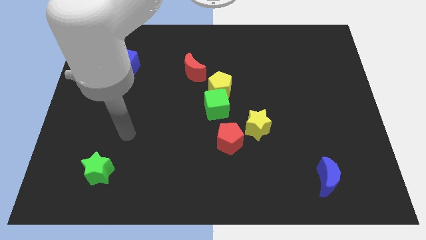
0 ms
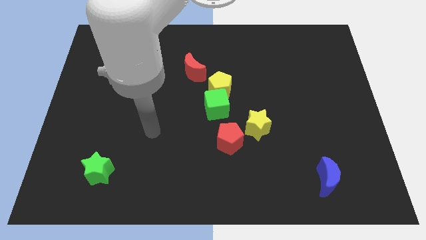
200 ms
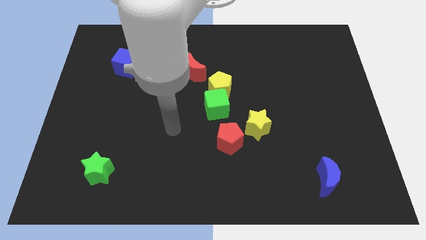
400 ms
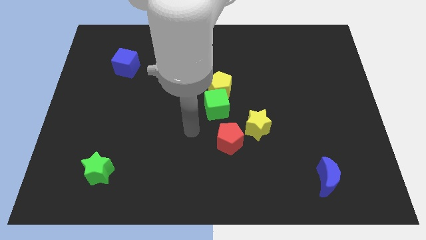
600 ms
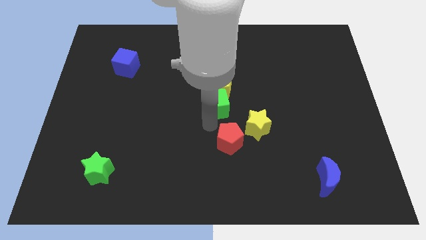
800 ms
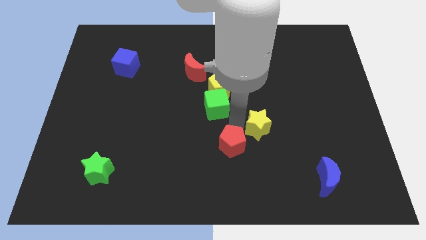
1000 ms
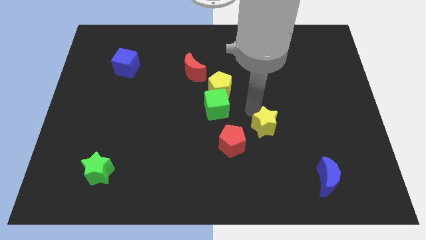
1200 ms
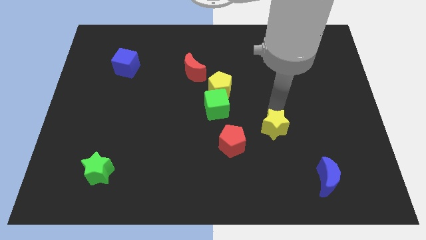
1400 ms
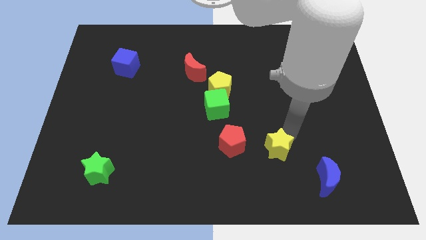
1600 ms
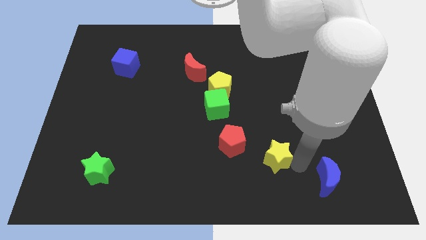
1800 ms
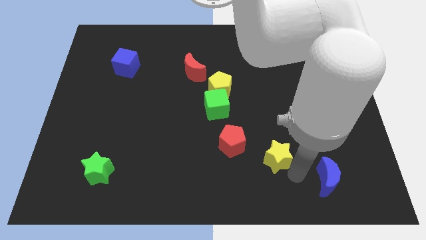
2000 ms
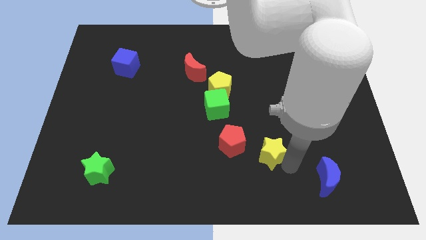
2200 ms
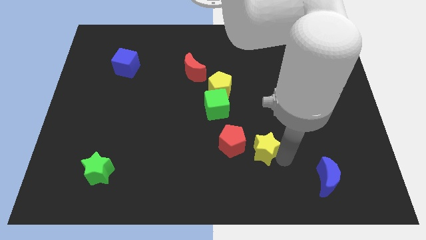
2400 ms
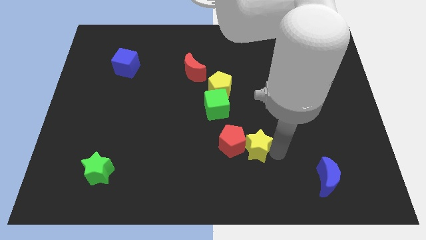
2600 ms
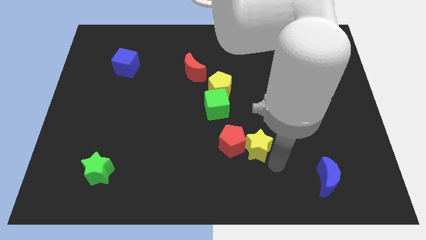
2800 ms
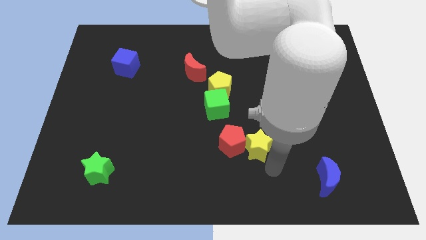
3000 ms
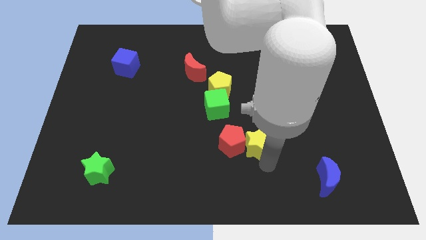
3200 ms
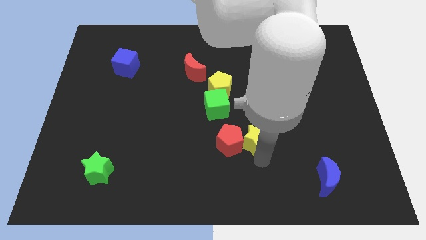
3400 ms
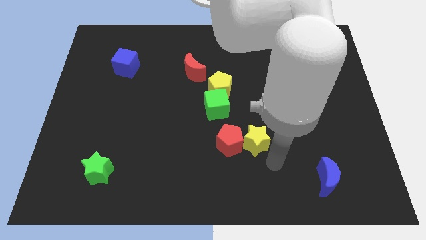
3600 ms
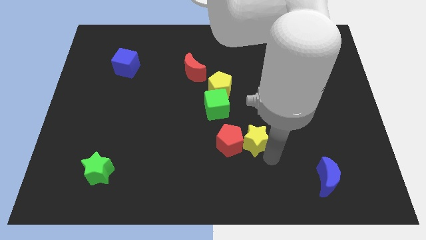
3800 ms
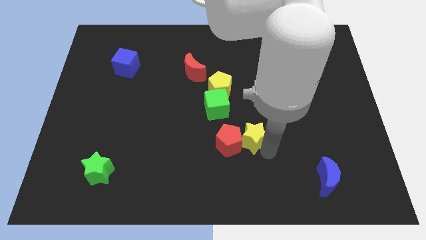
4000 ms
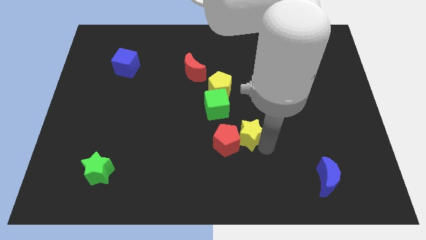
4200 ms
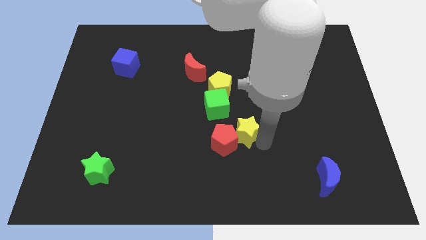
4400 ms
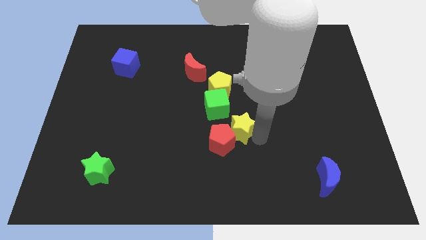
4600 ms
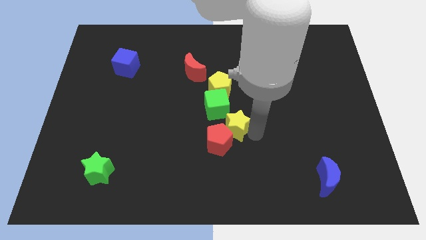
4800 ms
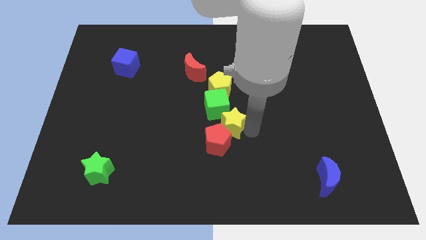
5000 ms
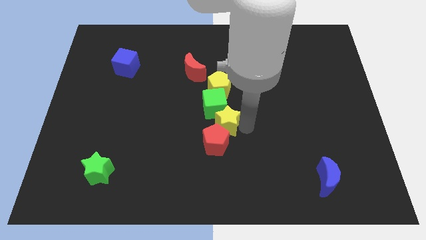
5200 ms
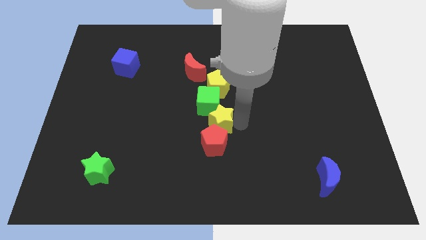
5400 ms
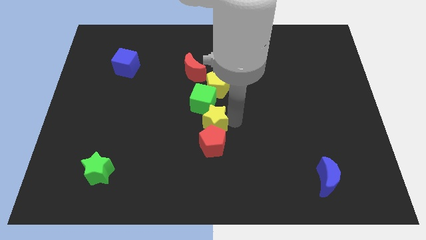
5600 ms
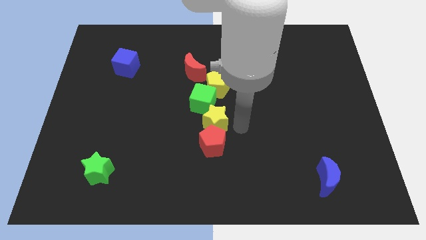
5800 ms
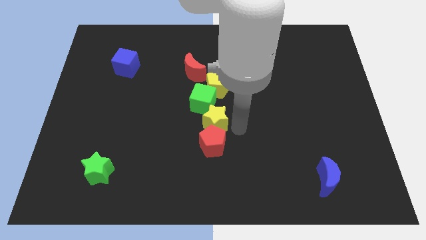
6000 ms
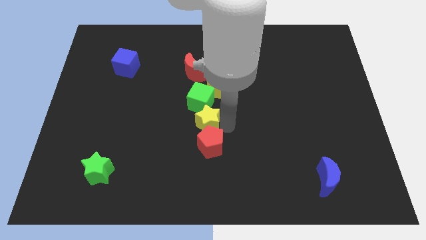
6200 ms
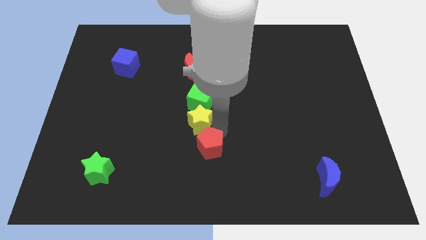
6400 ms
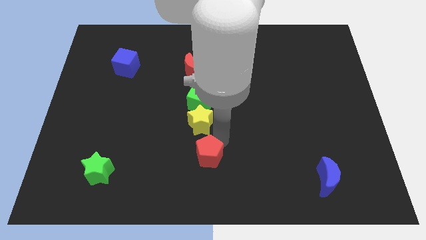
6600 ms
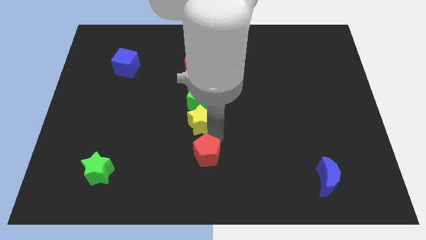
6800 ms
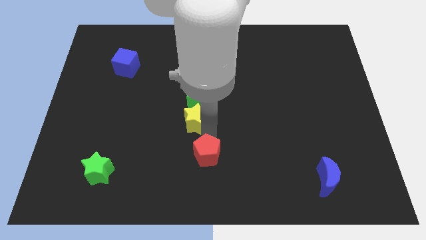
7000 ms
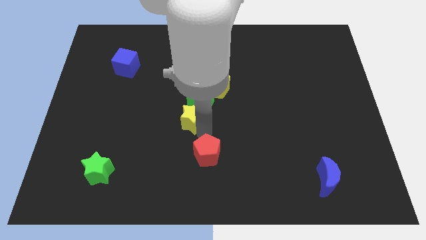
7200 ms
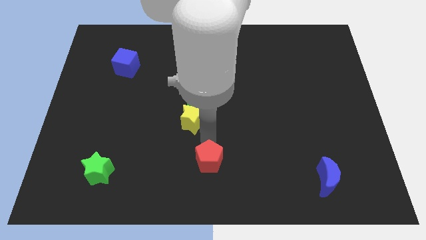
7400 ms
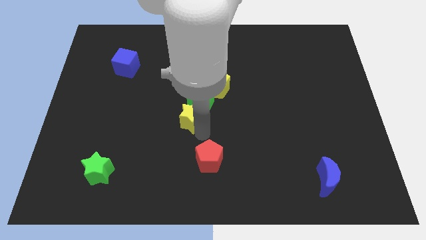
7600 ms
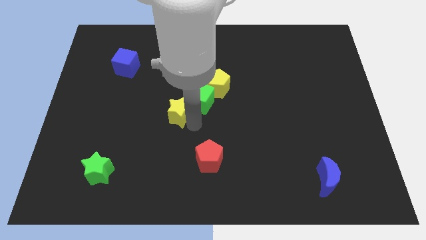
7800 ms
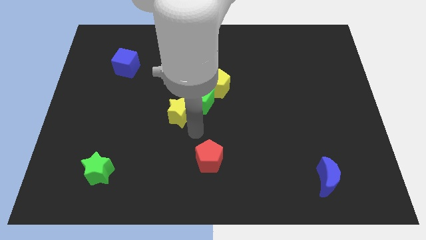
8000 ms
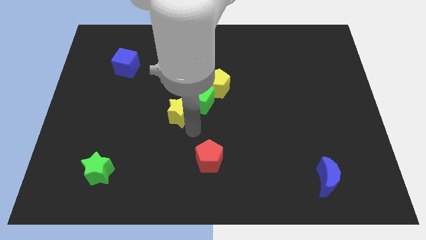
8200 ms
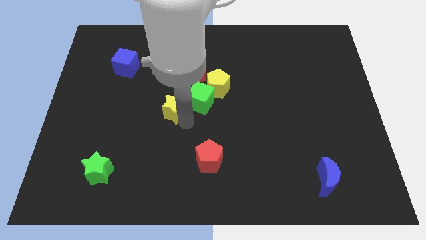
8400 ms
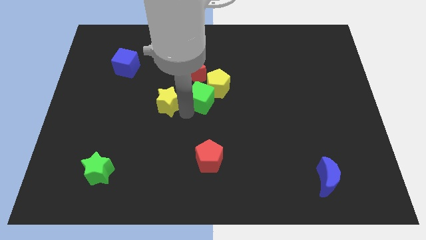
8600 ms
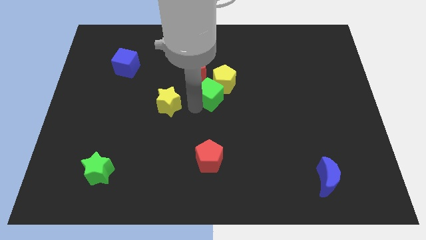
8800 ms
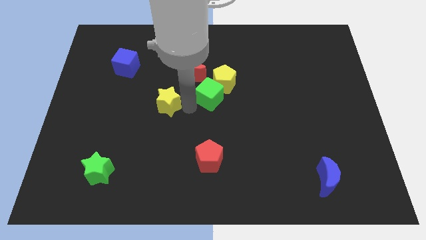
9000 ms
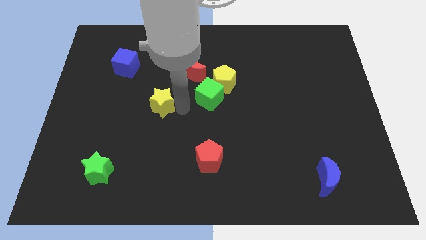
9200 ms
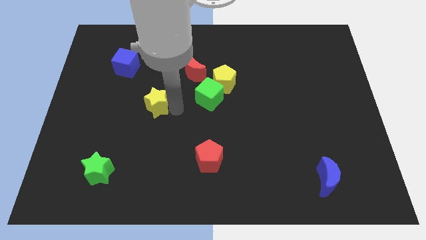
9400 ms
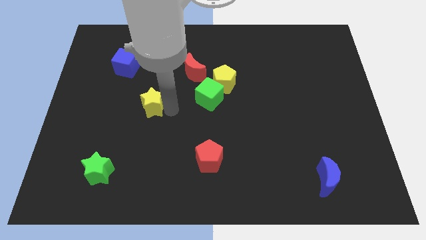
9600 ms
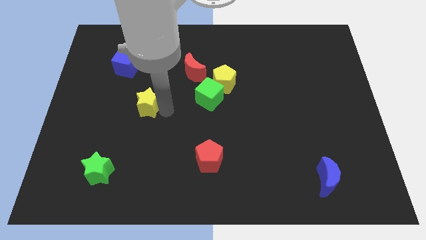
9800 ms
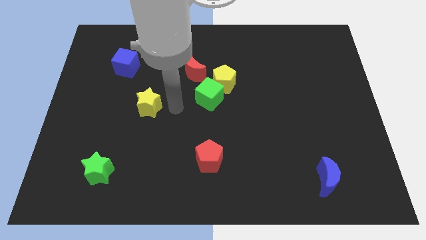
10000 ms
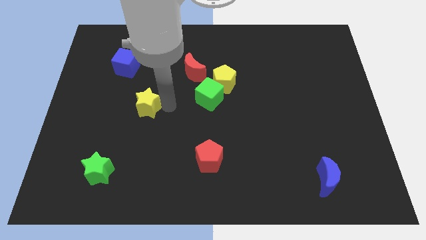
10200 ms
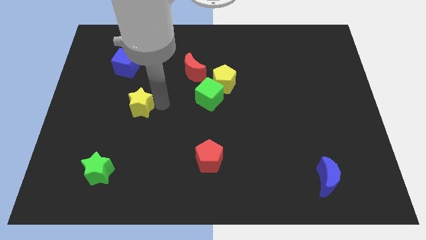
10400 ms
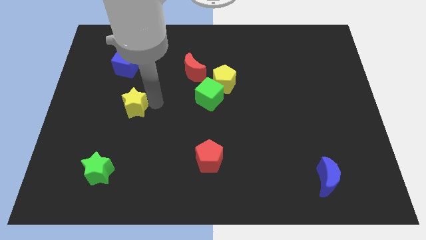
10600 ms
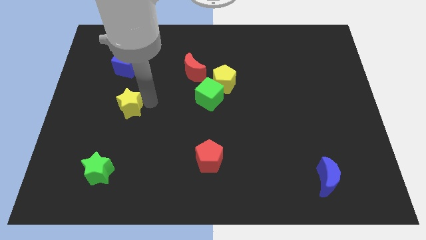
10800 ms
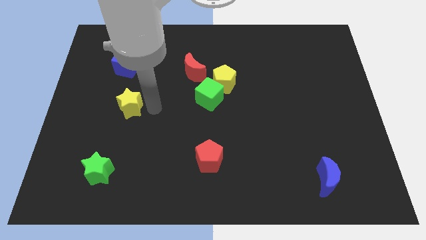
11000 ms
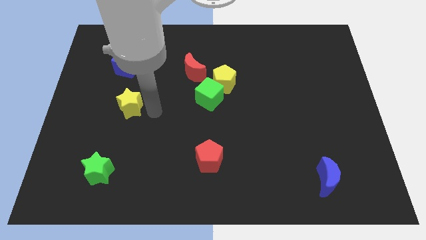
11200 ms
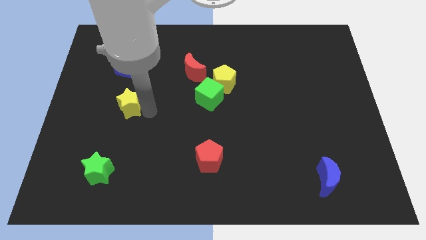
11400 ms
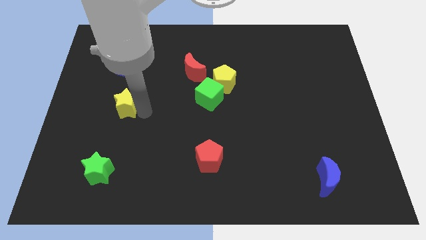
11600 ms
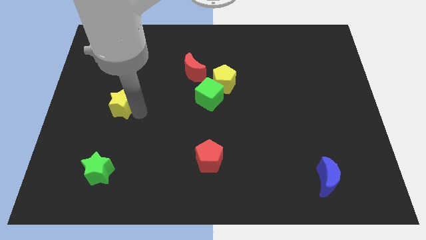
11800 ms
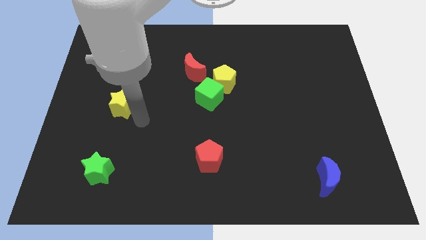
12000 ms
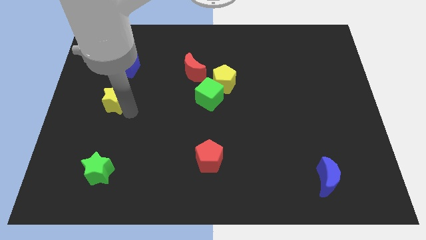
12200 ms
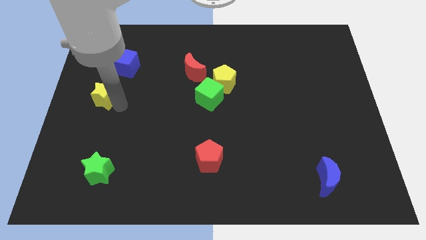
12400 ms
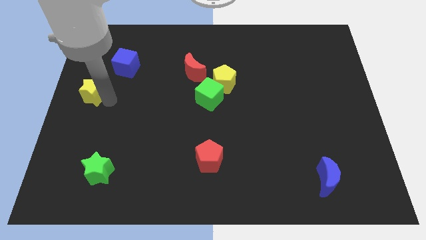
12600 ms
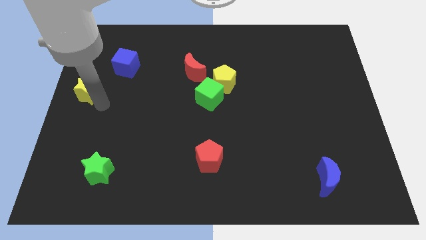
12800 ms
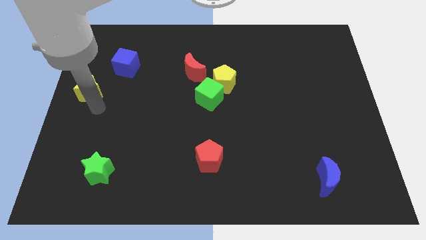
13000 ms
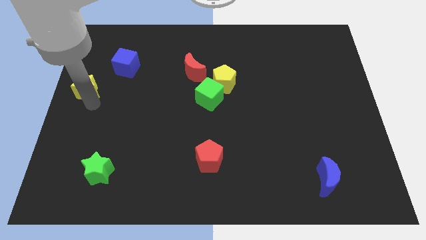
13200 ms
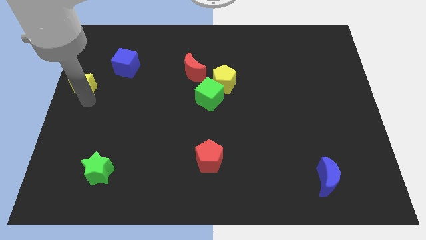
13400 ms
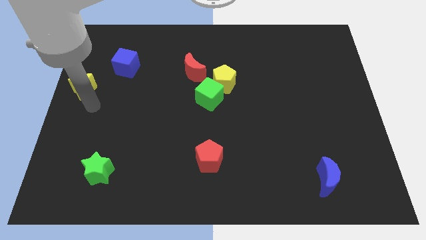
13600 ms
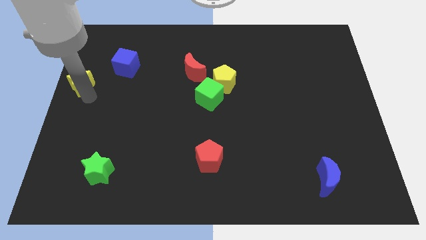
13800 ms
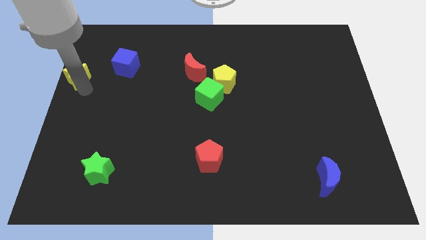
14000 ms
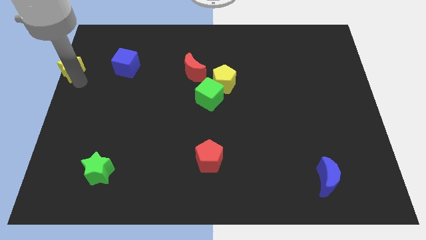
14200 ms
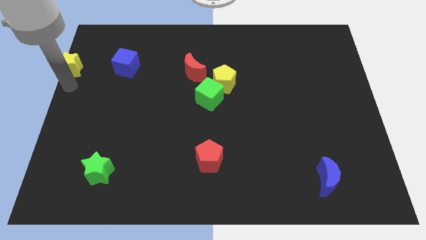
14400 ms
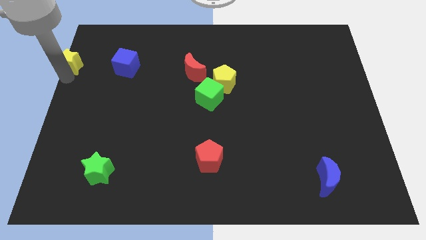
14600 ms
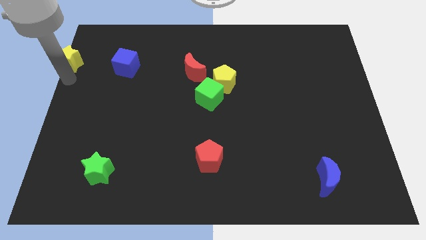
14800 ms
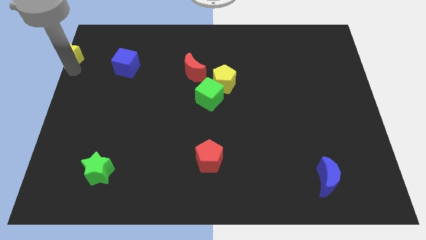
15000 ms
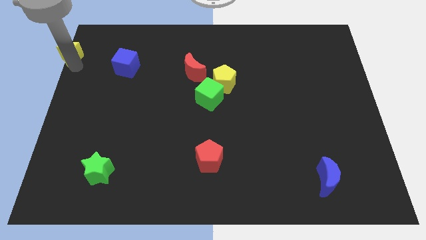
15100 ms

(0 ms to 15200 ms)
slide the yellow star to the top left of the board
